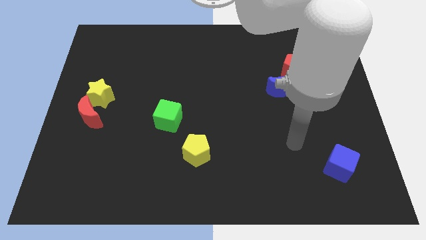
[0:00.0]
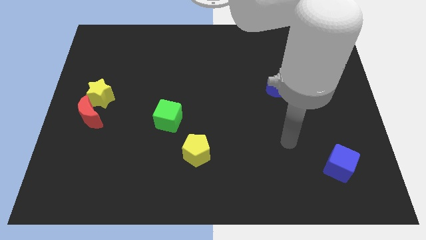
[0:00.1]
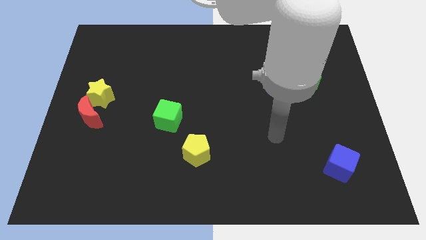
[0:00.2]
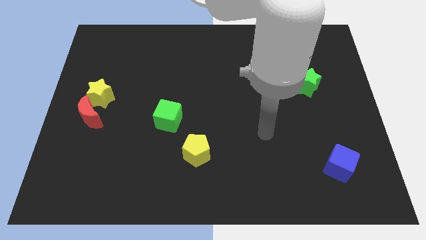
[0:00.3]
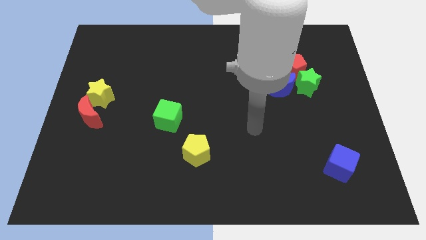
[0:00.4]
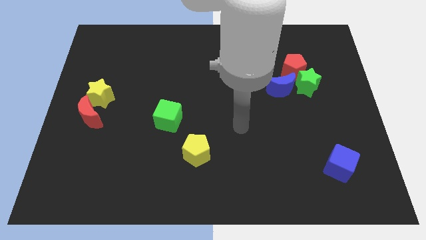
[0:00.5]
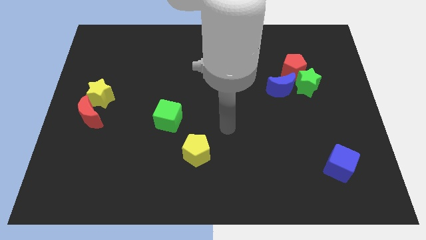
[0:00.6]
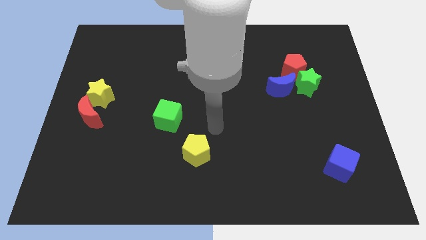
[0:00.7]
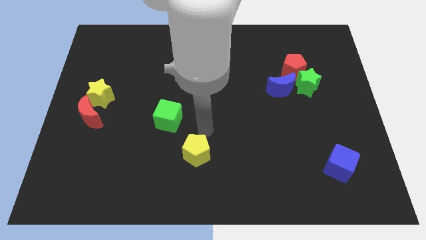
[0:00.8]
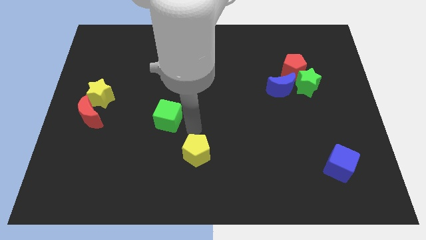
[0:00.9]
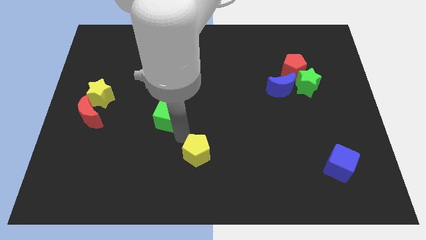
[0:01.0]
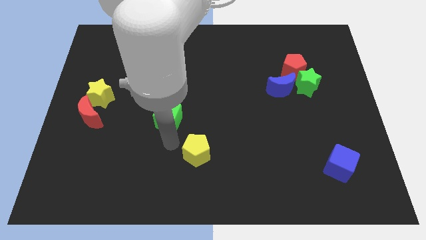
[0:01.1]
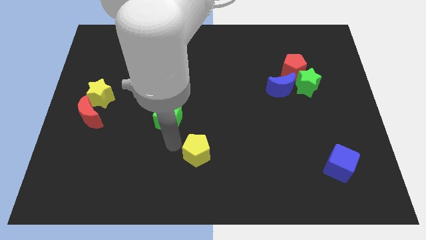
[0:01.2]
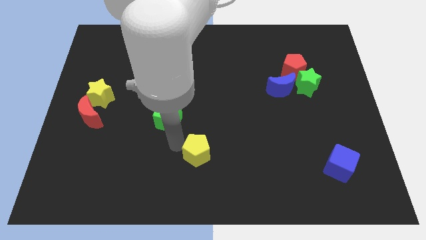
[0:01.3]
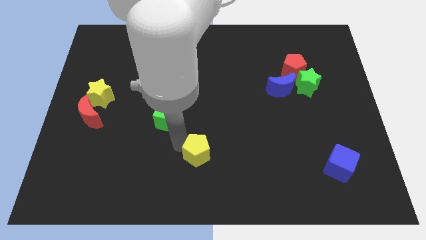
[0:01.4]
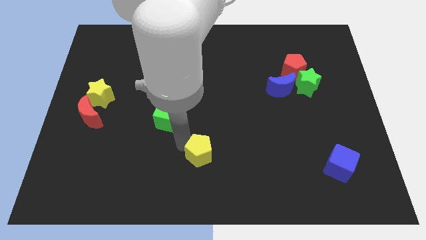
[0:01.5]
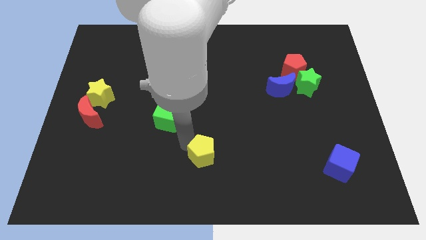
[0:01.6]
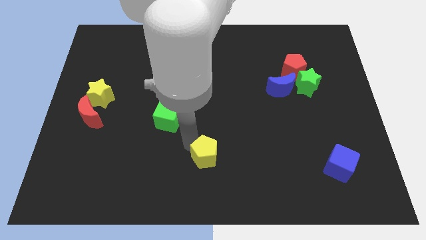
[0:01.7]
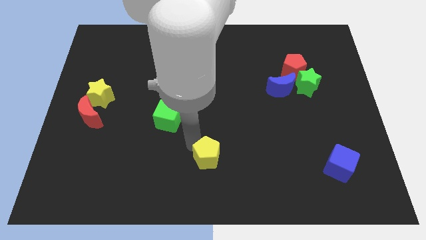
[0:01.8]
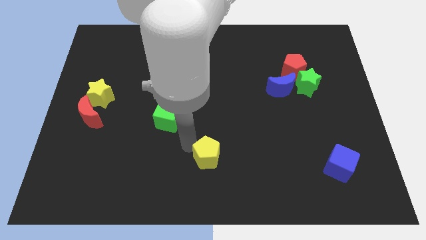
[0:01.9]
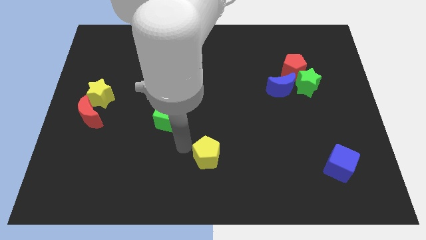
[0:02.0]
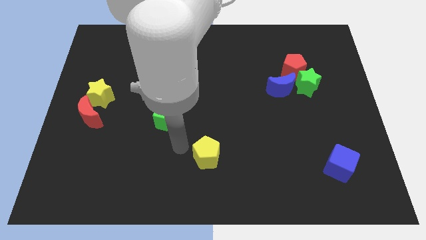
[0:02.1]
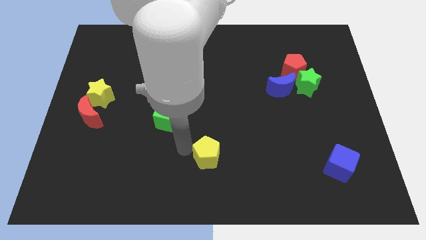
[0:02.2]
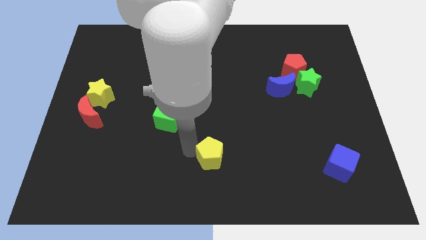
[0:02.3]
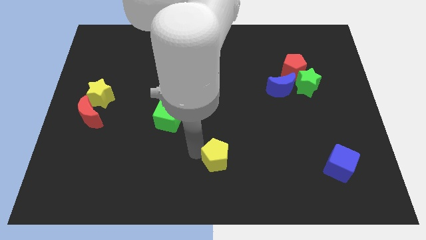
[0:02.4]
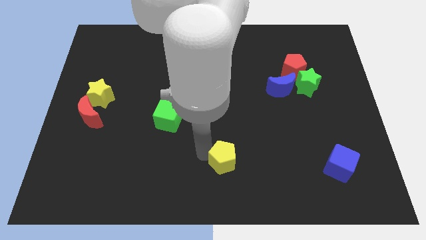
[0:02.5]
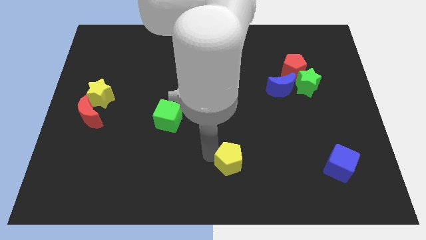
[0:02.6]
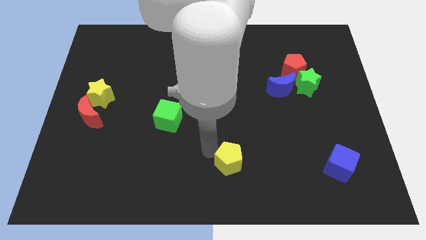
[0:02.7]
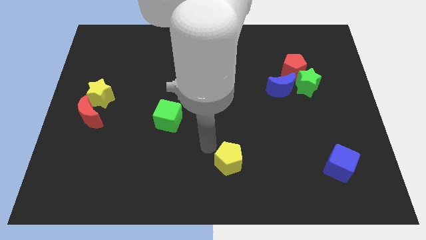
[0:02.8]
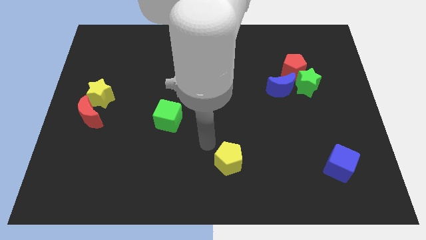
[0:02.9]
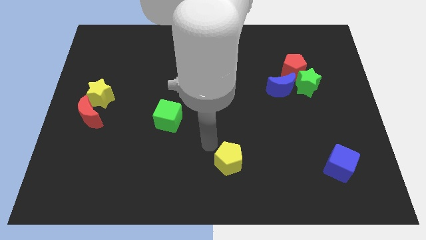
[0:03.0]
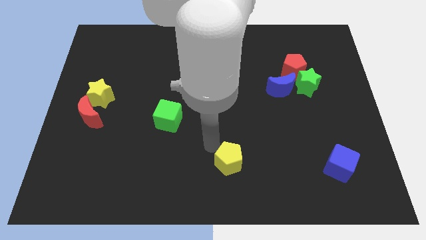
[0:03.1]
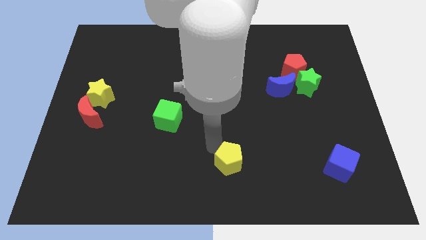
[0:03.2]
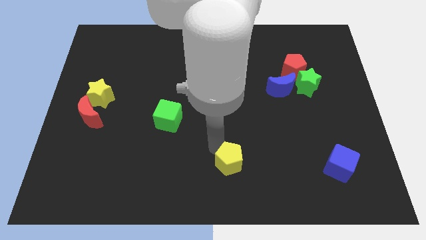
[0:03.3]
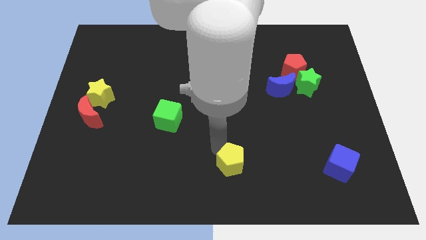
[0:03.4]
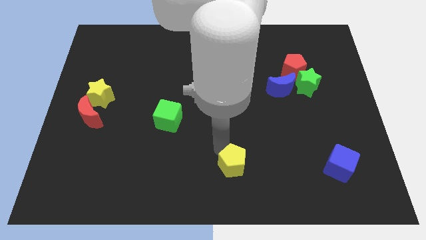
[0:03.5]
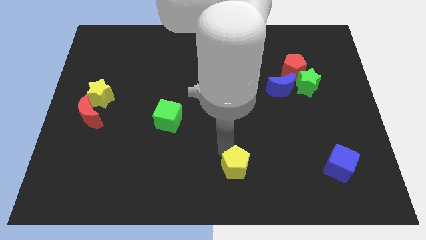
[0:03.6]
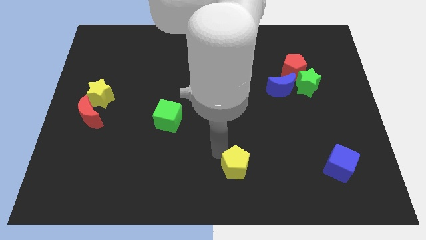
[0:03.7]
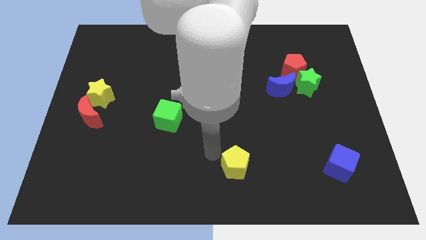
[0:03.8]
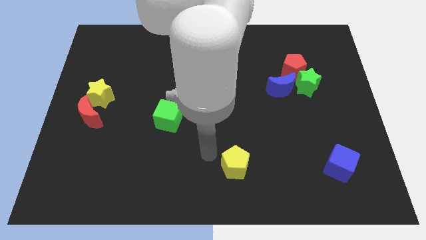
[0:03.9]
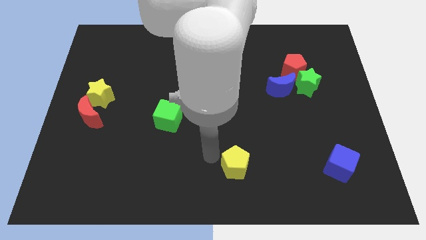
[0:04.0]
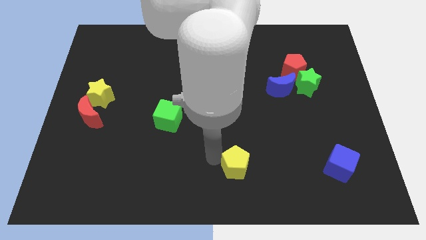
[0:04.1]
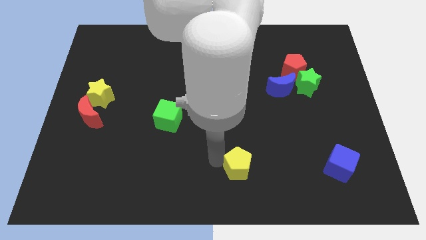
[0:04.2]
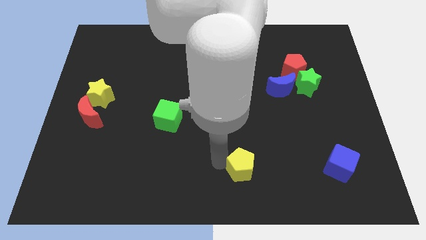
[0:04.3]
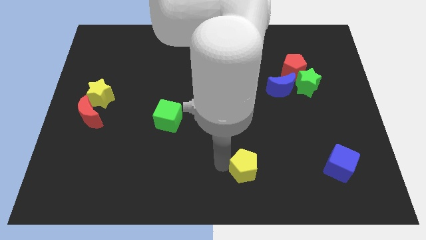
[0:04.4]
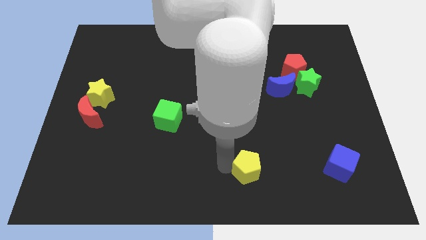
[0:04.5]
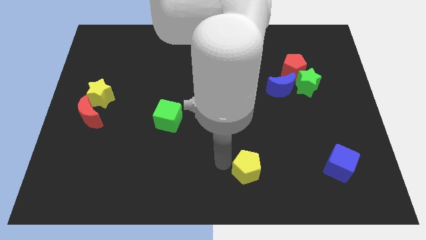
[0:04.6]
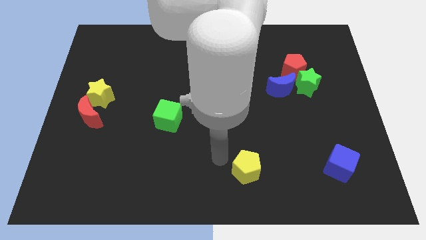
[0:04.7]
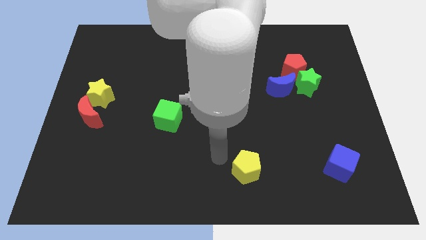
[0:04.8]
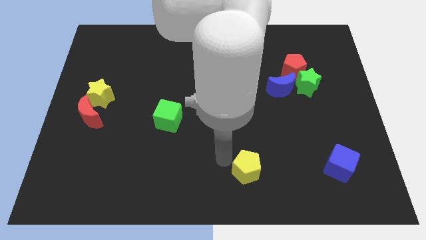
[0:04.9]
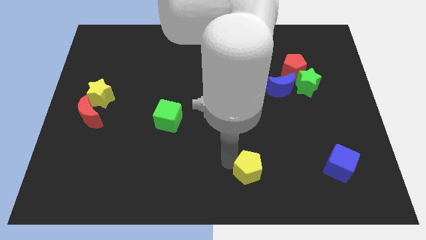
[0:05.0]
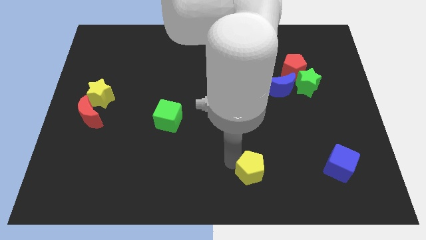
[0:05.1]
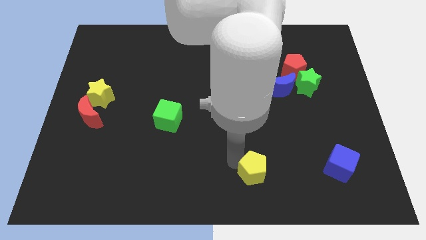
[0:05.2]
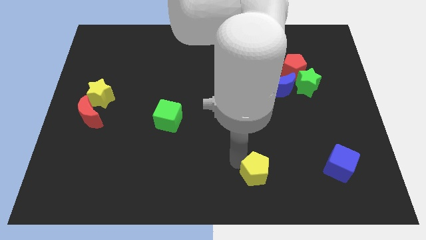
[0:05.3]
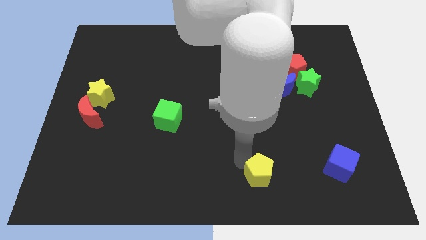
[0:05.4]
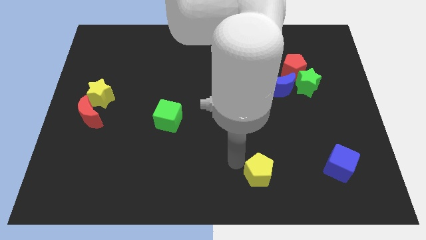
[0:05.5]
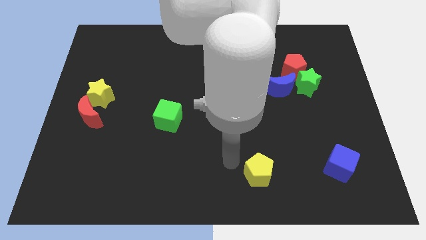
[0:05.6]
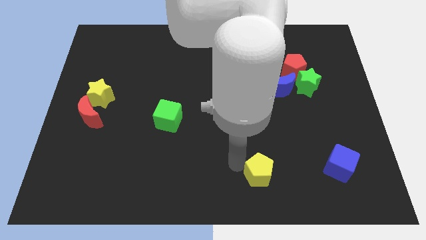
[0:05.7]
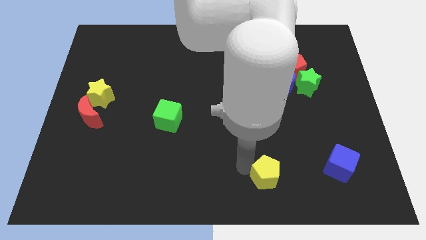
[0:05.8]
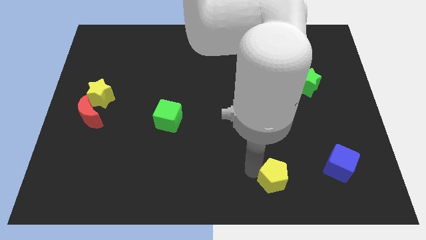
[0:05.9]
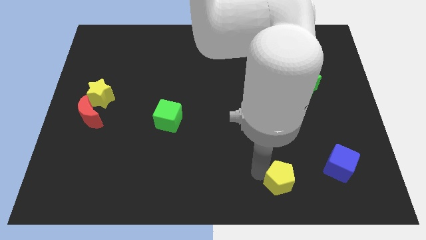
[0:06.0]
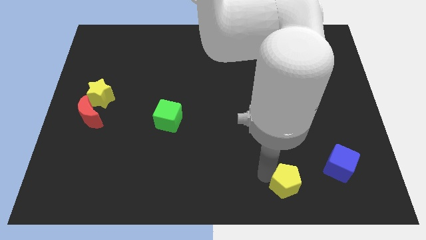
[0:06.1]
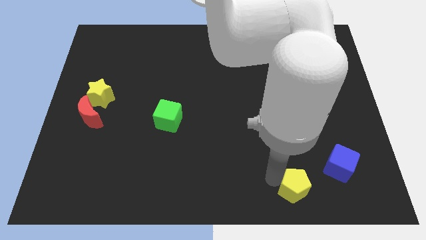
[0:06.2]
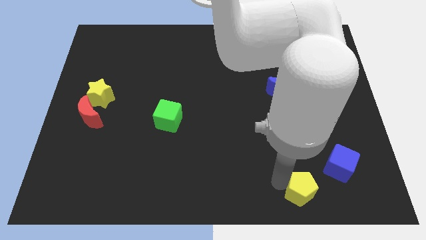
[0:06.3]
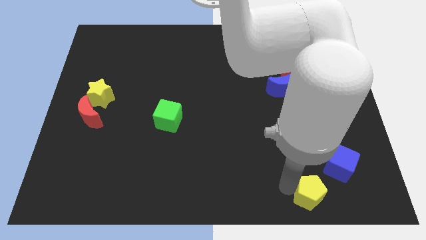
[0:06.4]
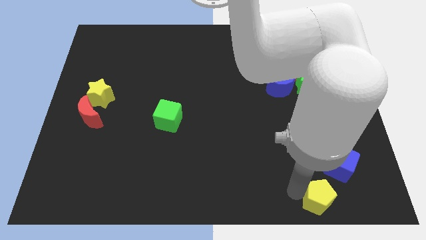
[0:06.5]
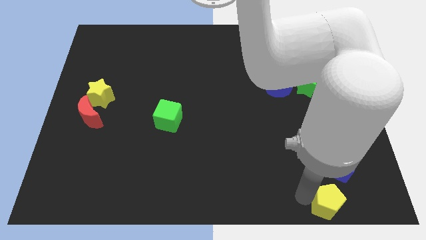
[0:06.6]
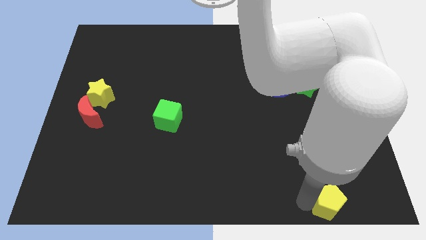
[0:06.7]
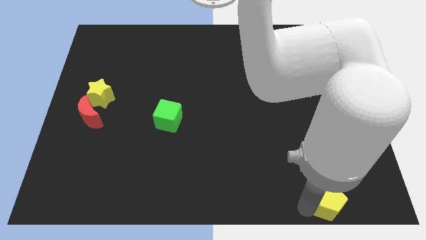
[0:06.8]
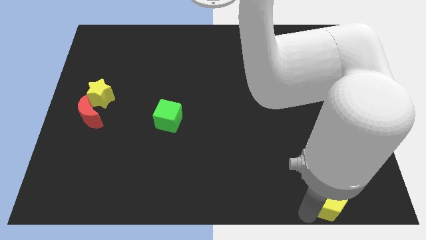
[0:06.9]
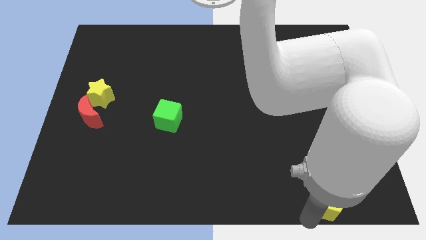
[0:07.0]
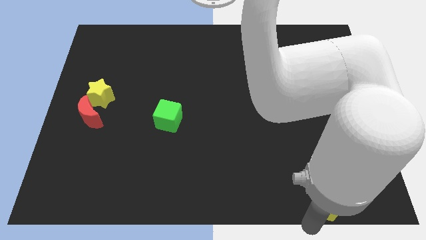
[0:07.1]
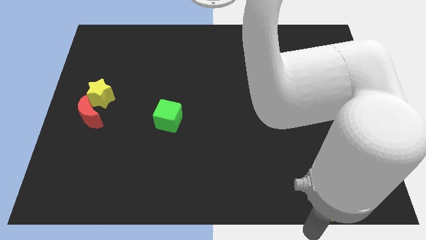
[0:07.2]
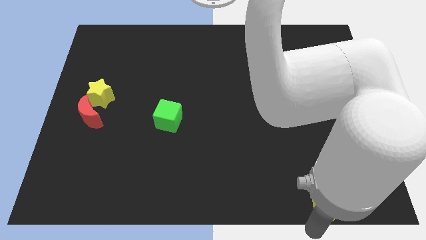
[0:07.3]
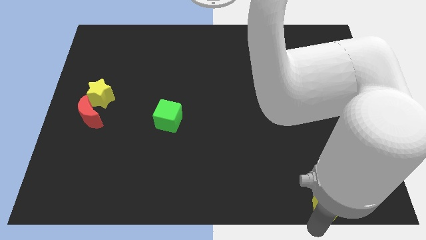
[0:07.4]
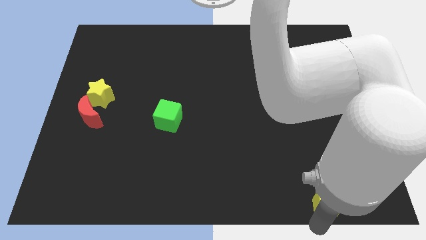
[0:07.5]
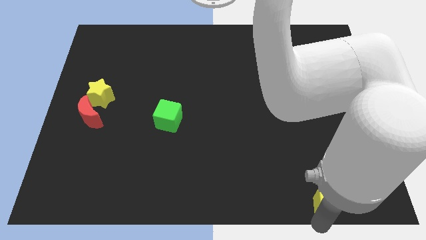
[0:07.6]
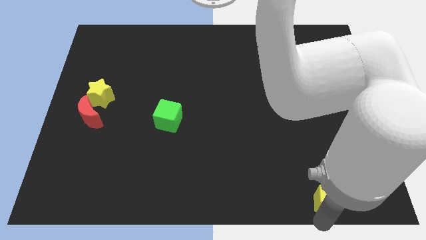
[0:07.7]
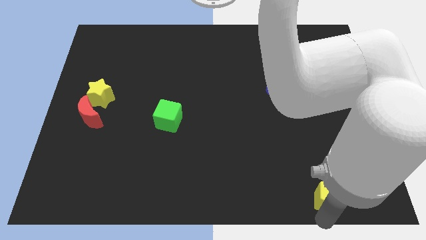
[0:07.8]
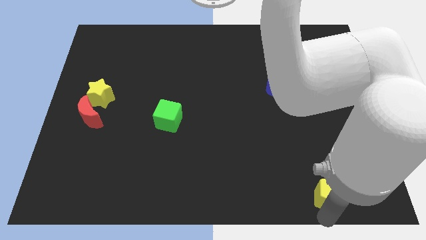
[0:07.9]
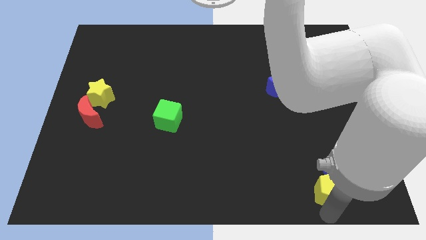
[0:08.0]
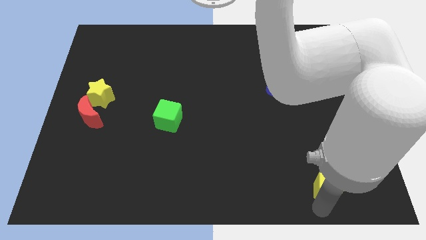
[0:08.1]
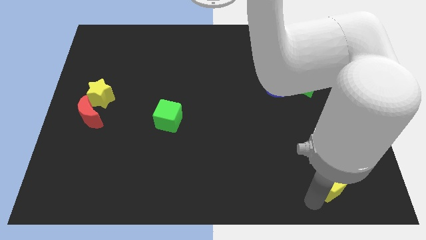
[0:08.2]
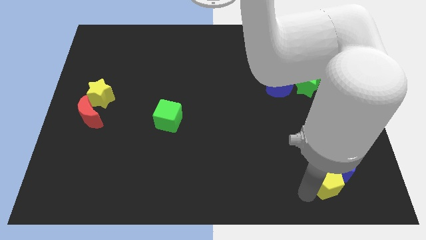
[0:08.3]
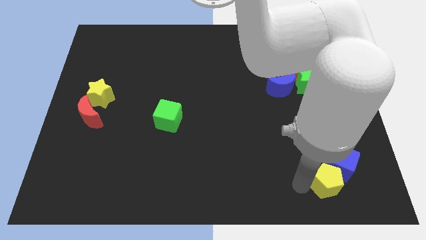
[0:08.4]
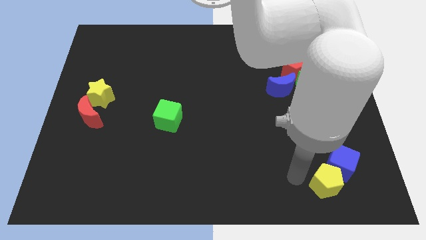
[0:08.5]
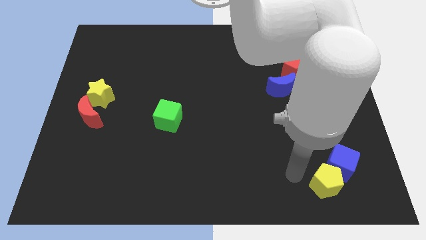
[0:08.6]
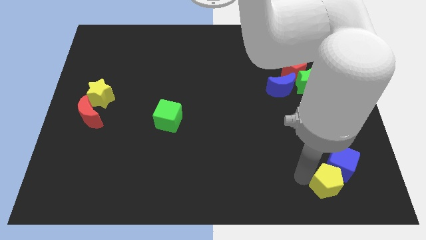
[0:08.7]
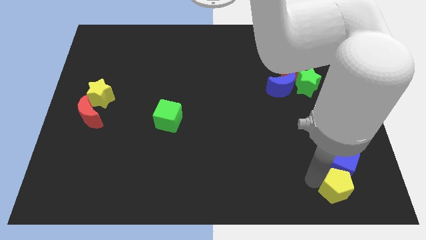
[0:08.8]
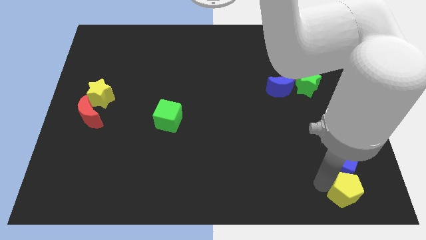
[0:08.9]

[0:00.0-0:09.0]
push the yellow pentagon to the bottom right
